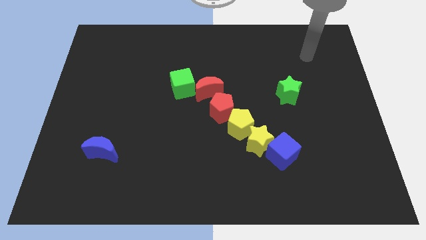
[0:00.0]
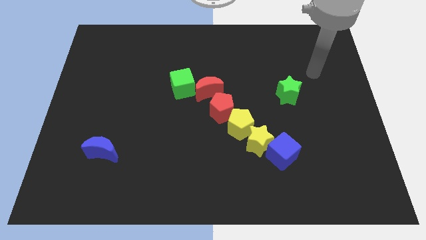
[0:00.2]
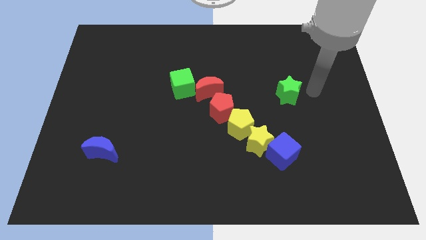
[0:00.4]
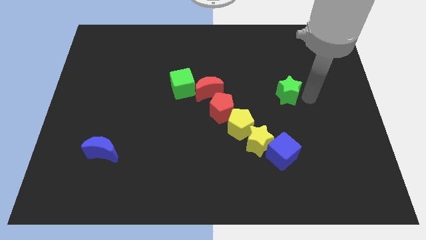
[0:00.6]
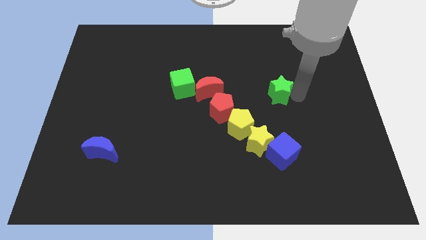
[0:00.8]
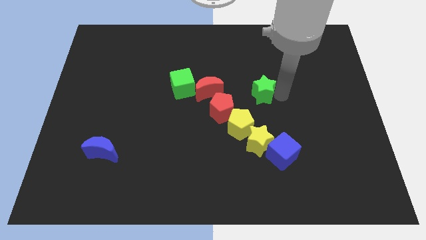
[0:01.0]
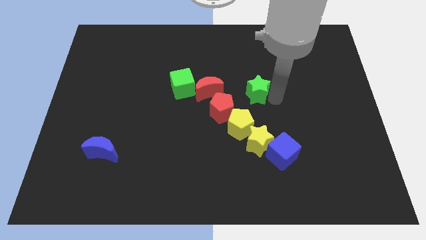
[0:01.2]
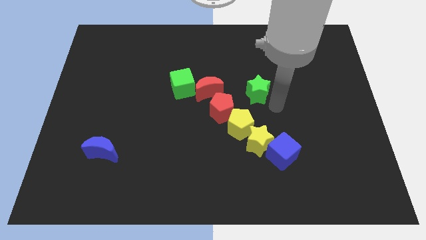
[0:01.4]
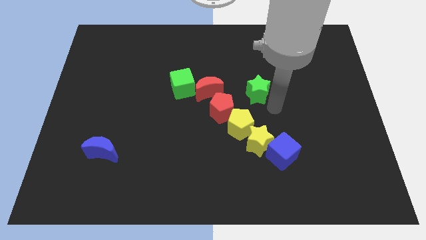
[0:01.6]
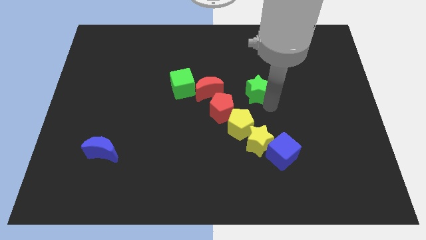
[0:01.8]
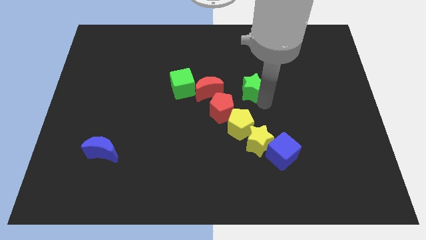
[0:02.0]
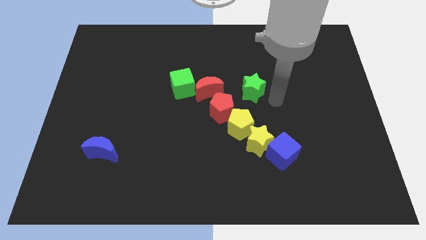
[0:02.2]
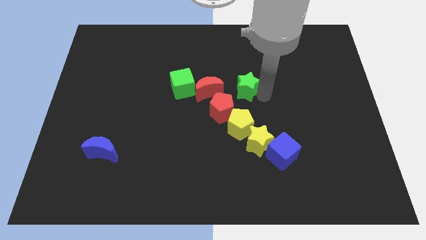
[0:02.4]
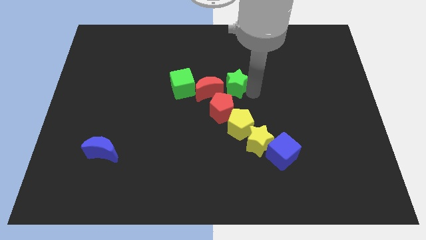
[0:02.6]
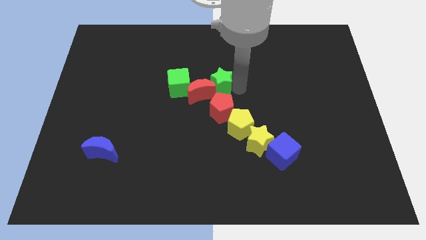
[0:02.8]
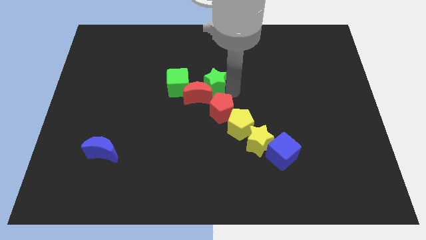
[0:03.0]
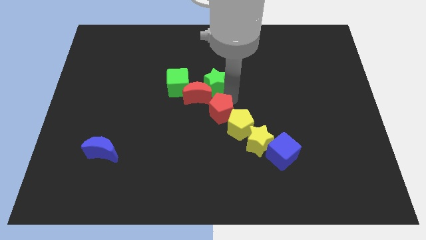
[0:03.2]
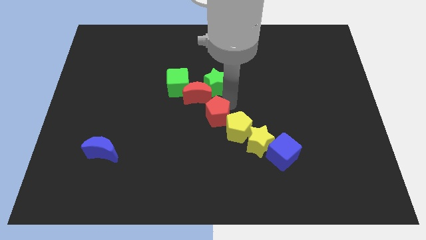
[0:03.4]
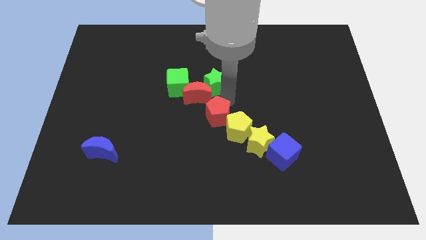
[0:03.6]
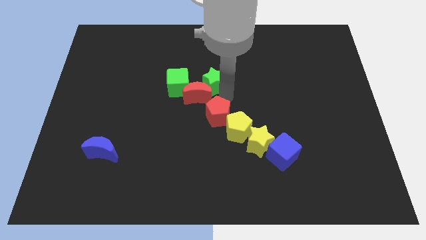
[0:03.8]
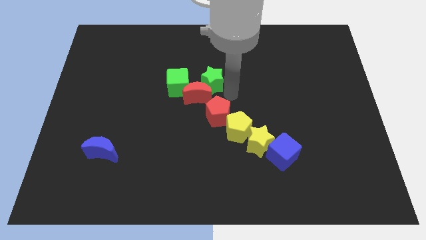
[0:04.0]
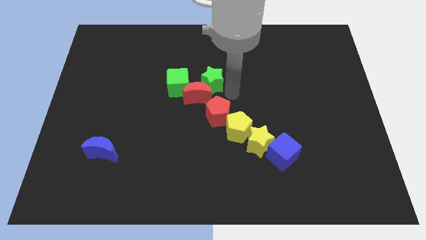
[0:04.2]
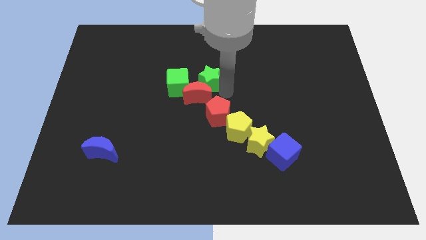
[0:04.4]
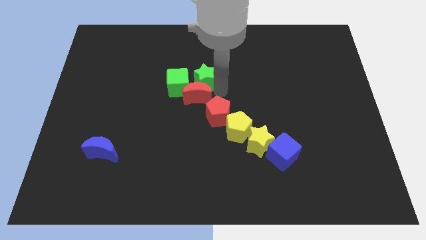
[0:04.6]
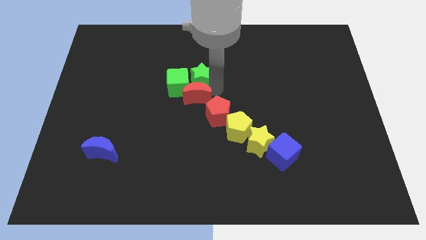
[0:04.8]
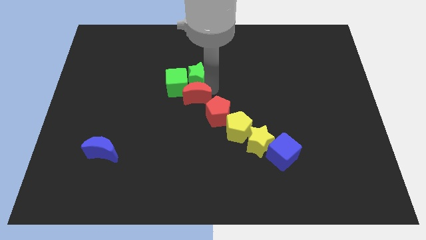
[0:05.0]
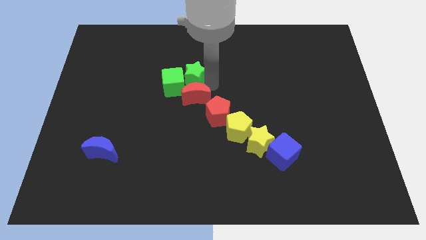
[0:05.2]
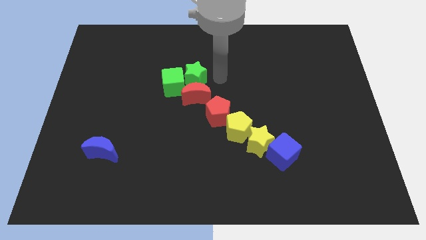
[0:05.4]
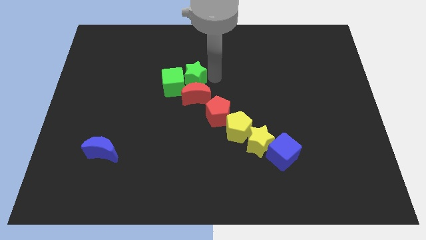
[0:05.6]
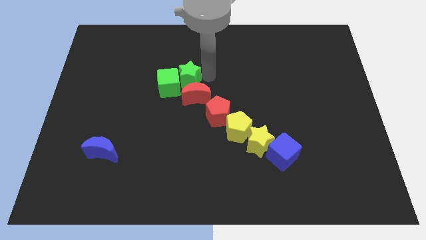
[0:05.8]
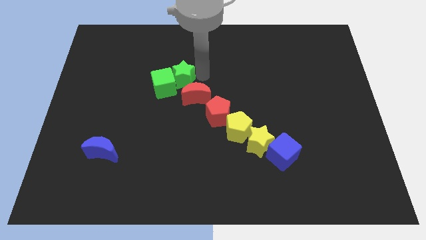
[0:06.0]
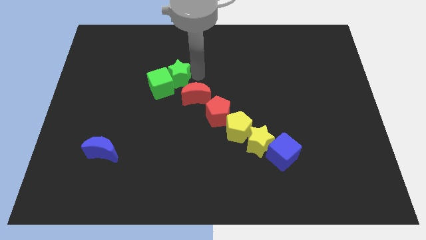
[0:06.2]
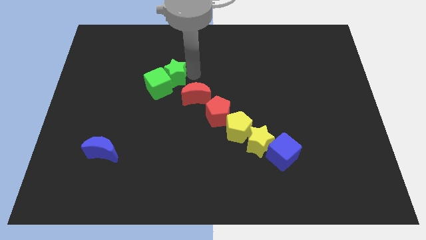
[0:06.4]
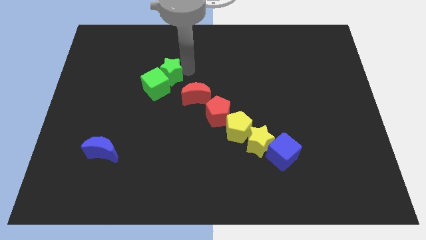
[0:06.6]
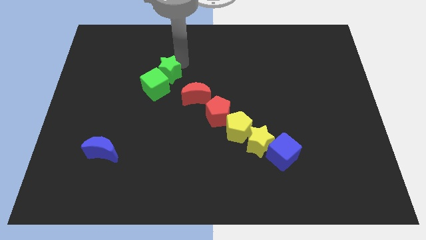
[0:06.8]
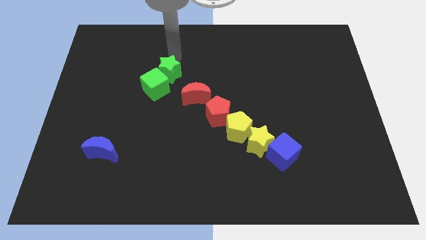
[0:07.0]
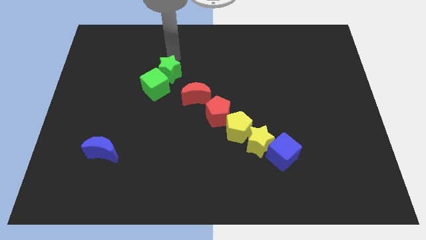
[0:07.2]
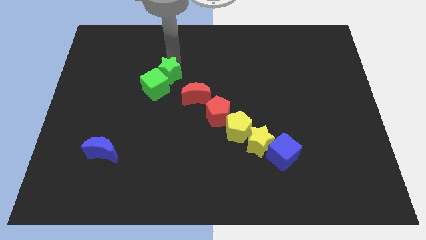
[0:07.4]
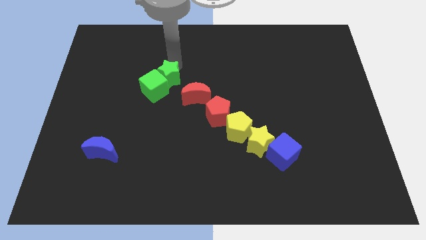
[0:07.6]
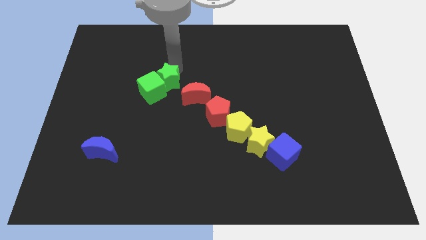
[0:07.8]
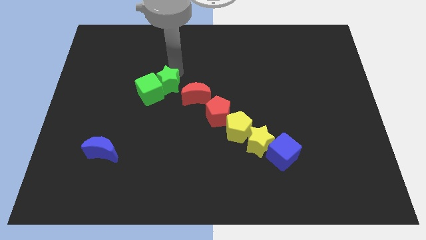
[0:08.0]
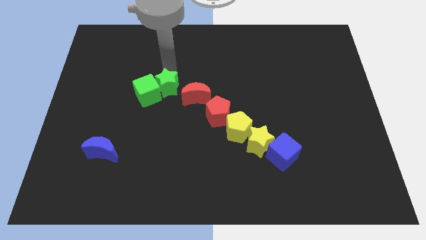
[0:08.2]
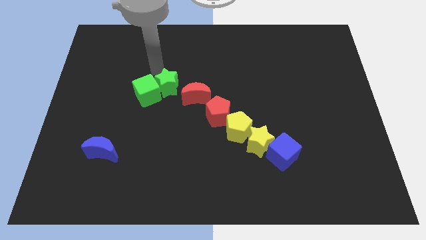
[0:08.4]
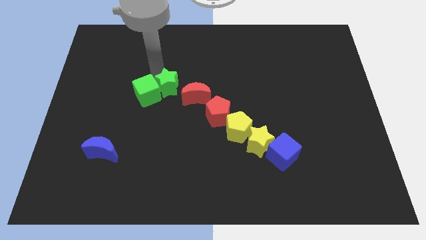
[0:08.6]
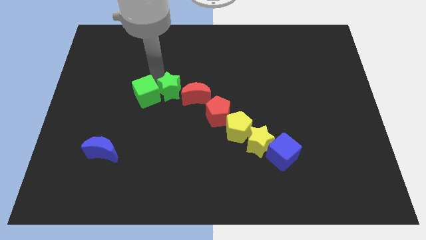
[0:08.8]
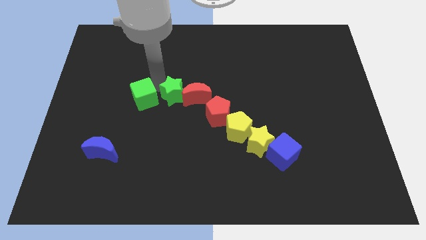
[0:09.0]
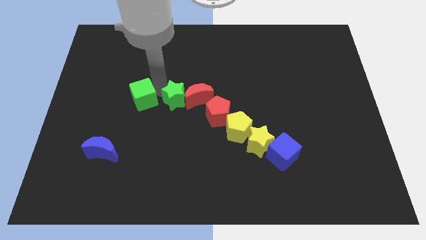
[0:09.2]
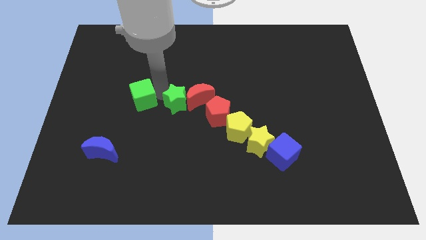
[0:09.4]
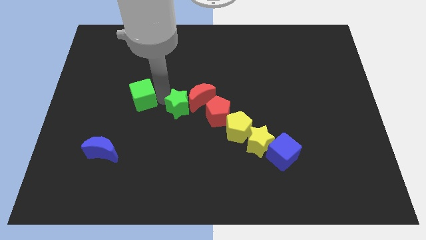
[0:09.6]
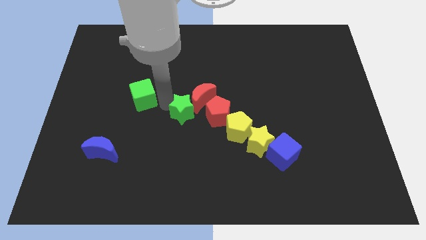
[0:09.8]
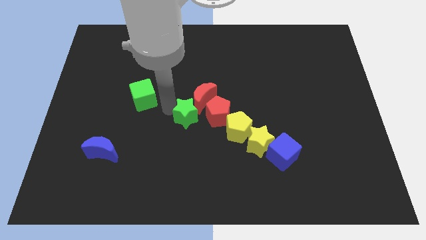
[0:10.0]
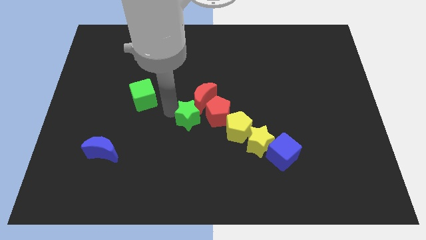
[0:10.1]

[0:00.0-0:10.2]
slide the green star to the bottom left side of the red pentagon

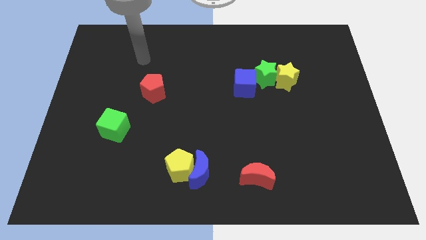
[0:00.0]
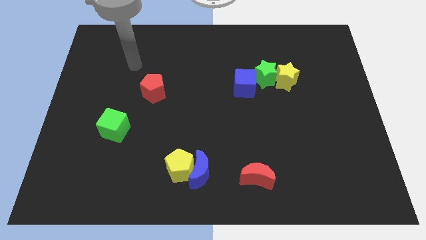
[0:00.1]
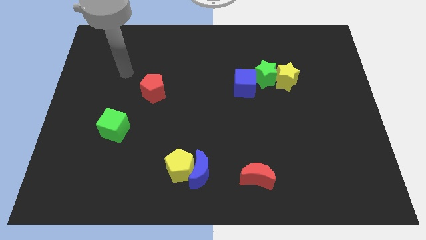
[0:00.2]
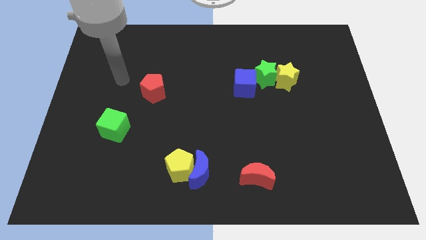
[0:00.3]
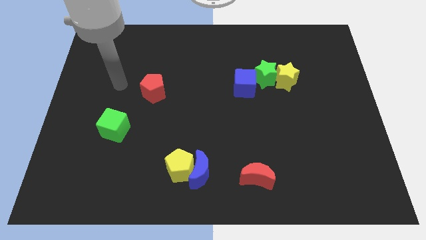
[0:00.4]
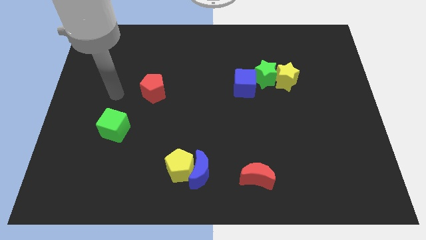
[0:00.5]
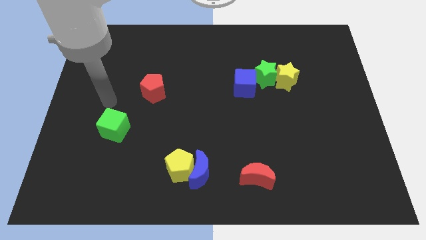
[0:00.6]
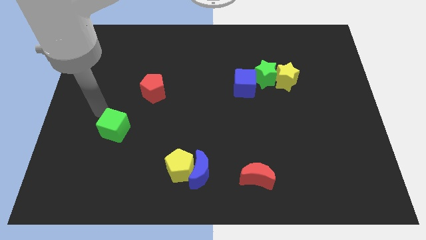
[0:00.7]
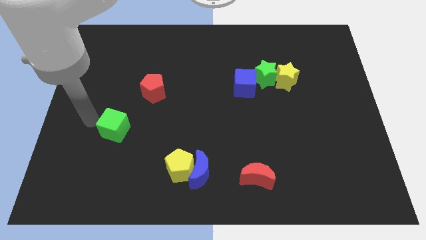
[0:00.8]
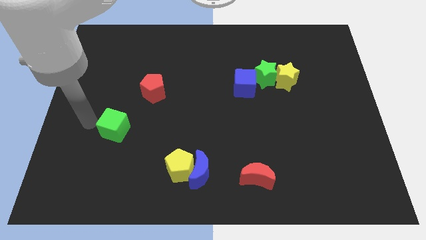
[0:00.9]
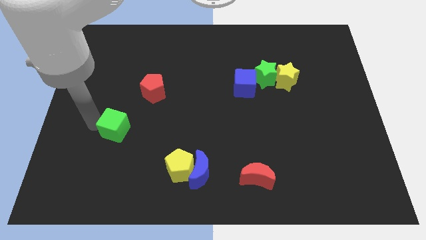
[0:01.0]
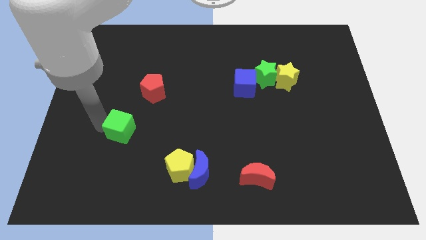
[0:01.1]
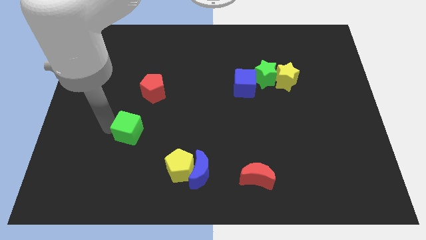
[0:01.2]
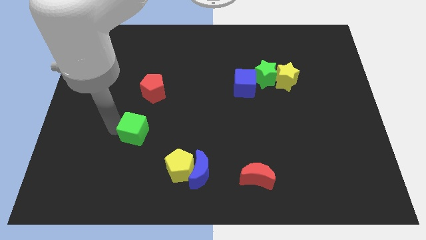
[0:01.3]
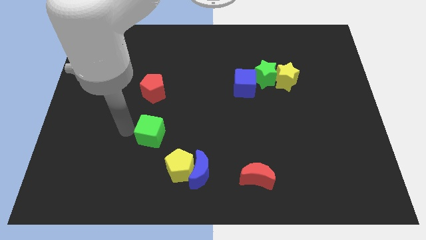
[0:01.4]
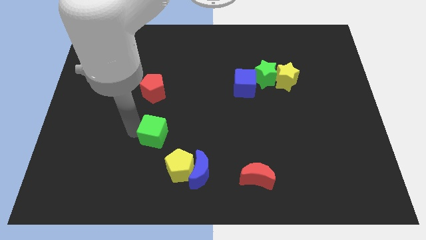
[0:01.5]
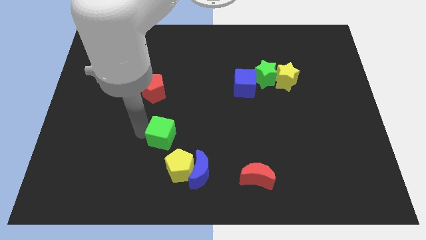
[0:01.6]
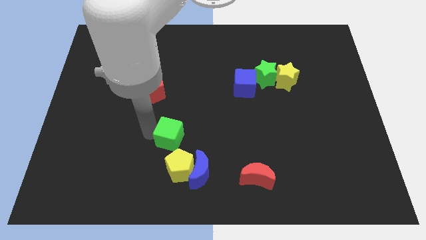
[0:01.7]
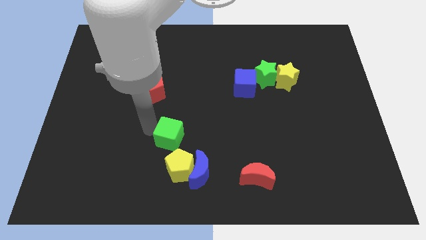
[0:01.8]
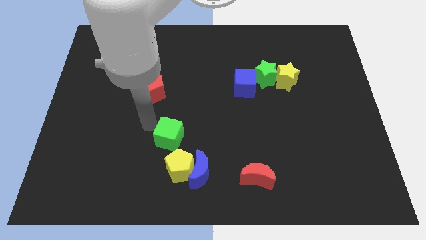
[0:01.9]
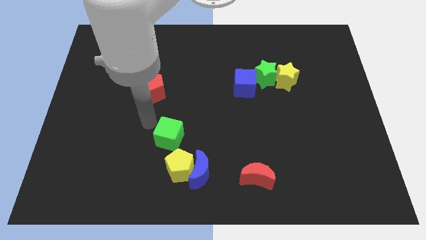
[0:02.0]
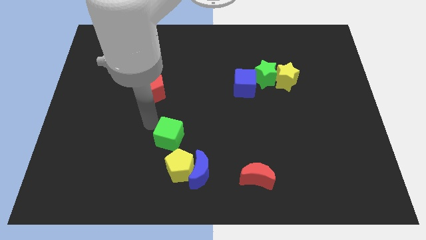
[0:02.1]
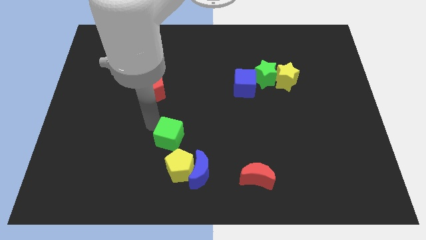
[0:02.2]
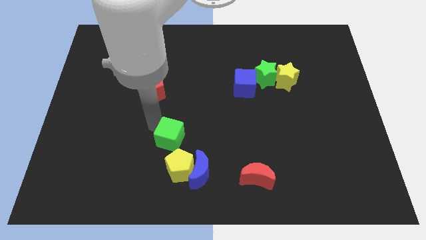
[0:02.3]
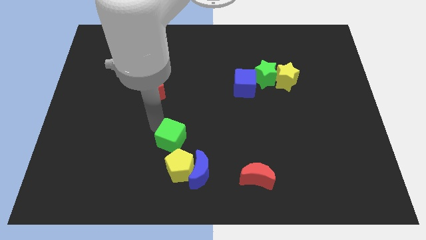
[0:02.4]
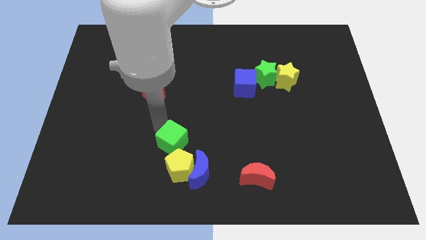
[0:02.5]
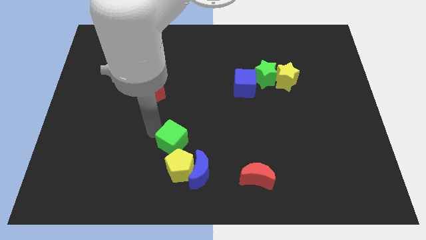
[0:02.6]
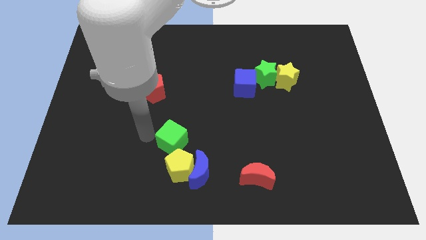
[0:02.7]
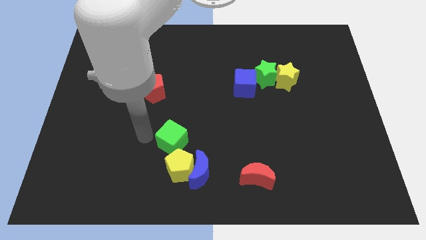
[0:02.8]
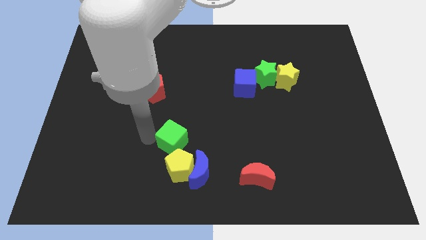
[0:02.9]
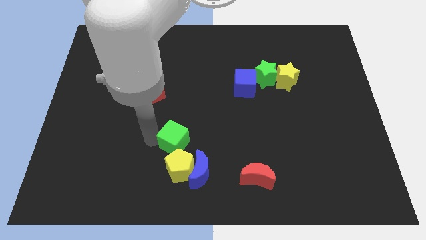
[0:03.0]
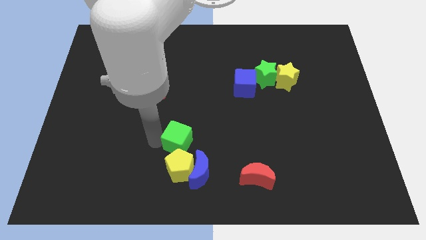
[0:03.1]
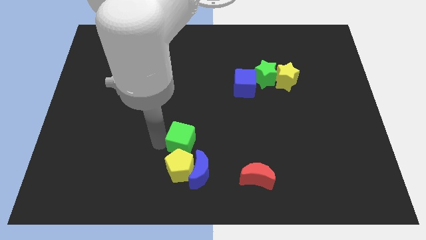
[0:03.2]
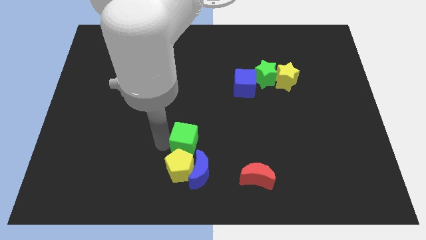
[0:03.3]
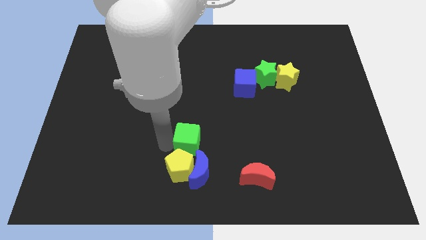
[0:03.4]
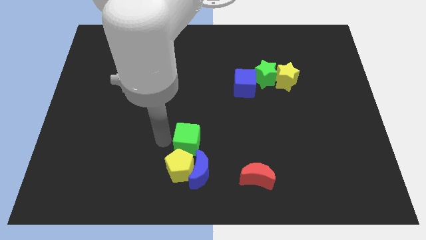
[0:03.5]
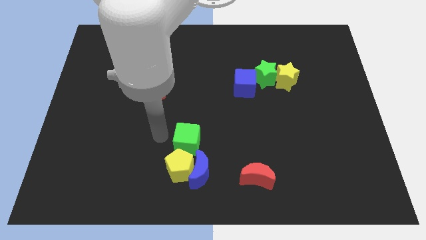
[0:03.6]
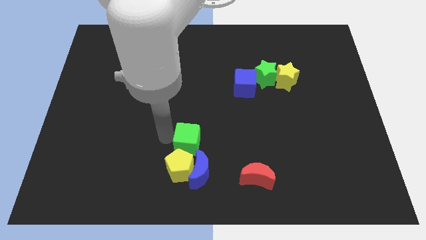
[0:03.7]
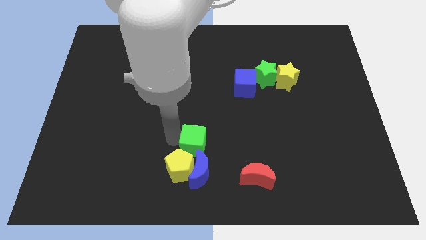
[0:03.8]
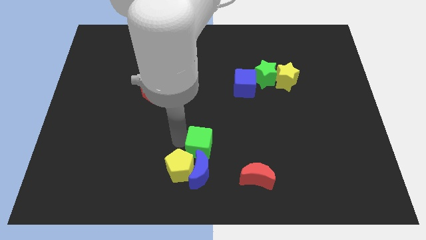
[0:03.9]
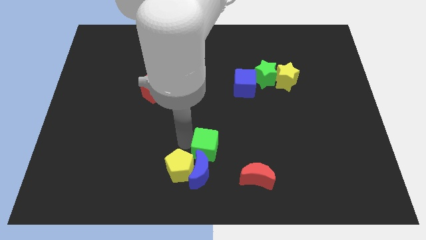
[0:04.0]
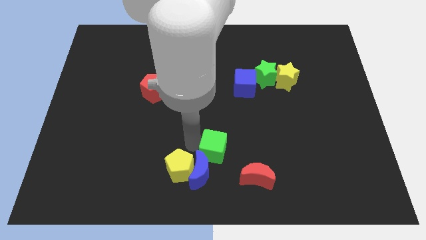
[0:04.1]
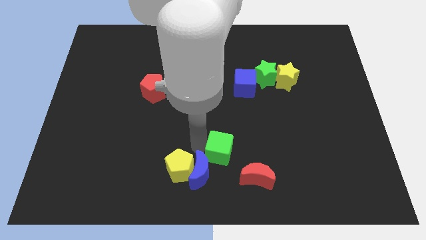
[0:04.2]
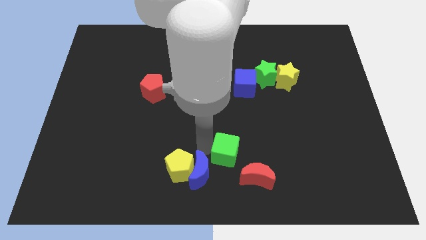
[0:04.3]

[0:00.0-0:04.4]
slide the green cube to the right of the blue moon
